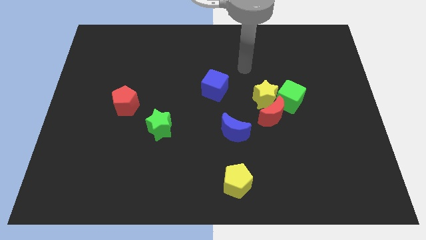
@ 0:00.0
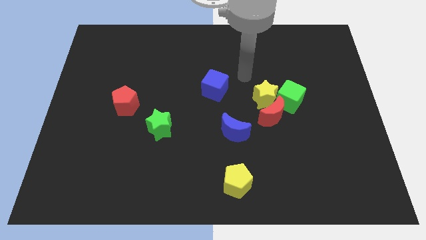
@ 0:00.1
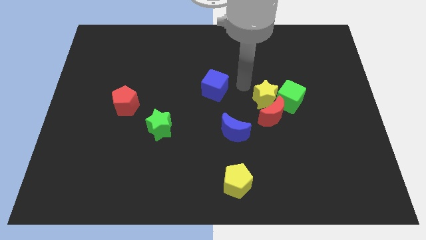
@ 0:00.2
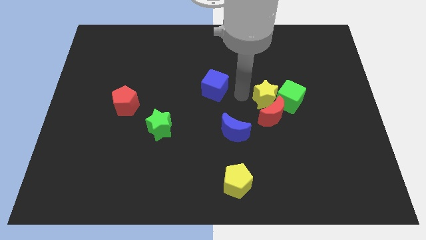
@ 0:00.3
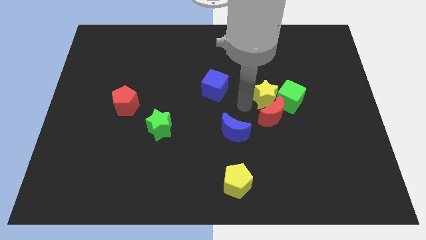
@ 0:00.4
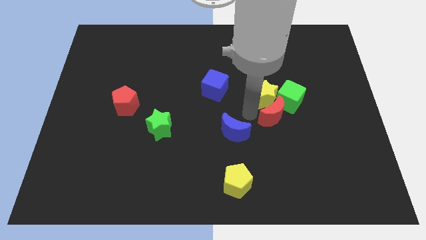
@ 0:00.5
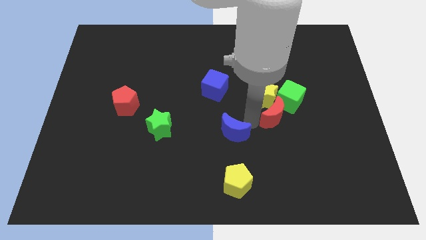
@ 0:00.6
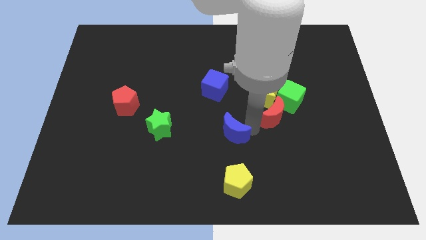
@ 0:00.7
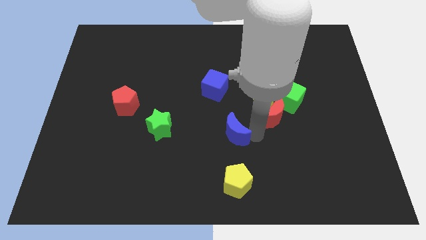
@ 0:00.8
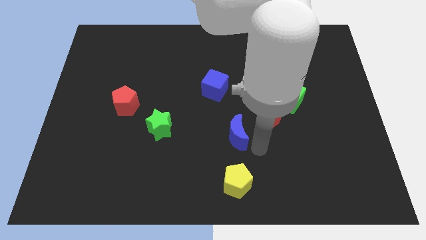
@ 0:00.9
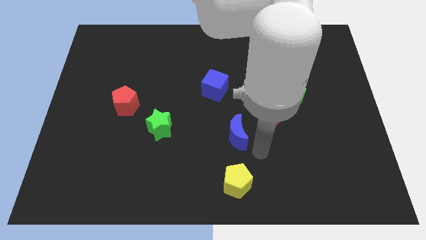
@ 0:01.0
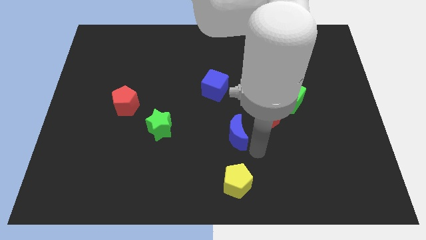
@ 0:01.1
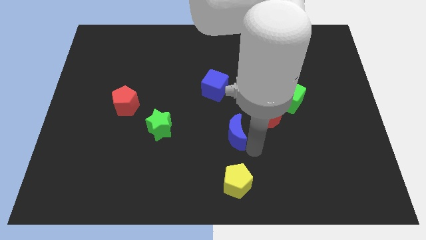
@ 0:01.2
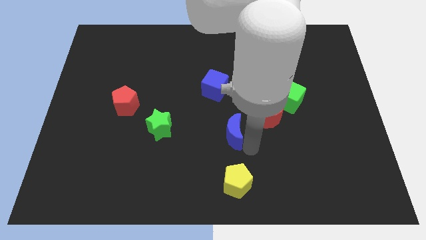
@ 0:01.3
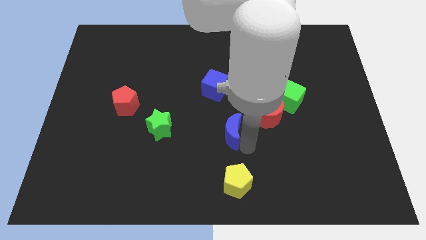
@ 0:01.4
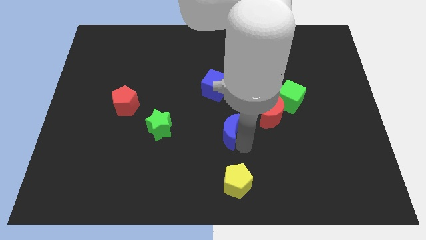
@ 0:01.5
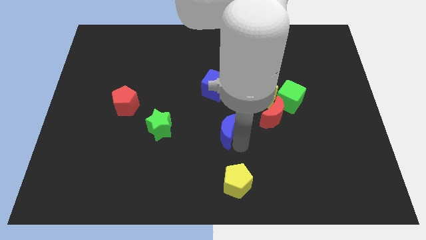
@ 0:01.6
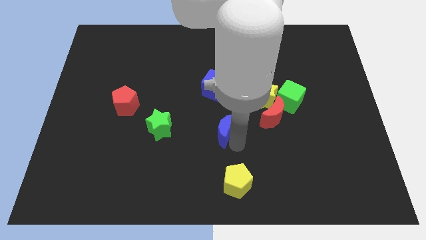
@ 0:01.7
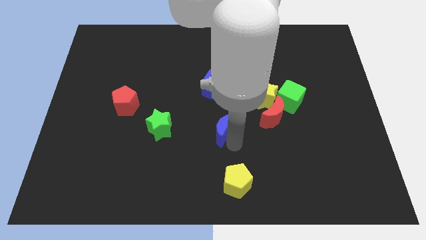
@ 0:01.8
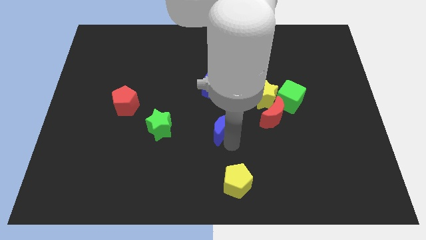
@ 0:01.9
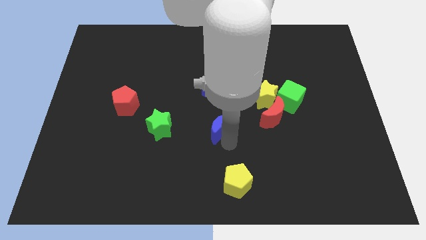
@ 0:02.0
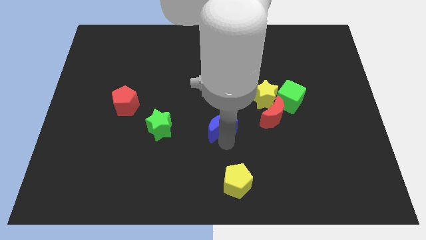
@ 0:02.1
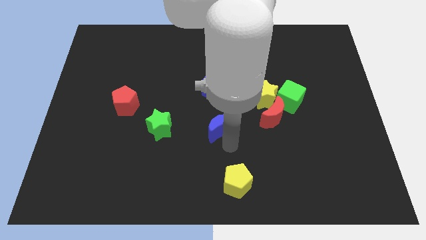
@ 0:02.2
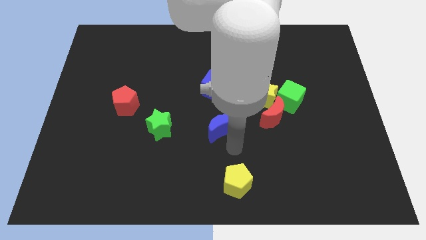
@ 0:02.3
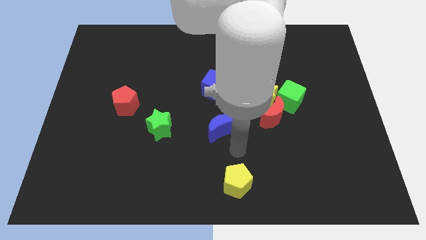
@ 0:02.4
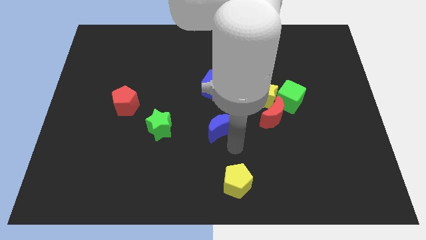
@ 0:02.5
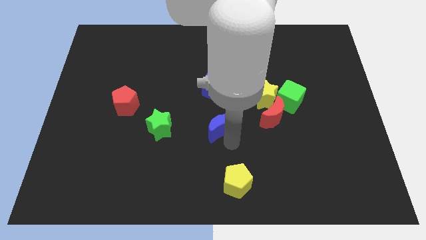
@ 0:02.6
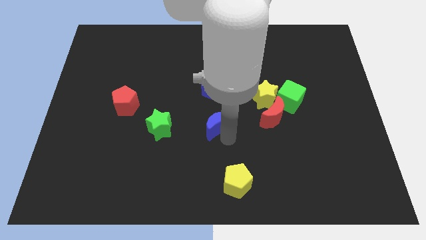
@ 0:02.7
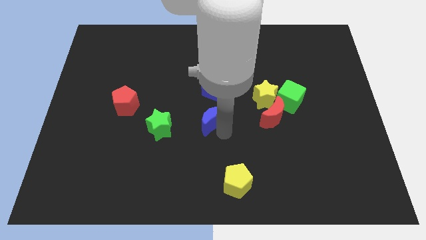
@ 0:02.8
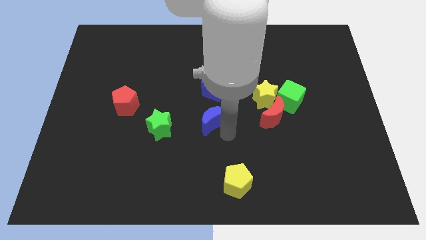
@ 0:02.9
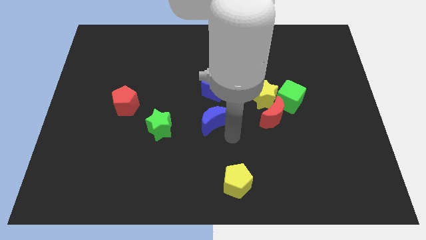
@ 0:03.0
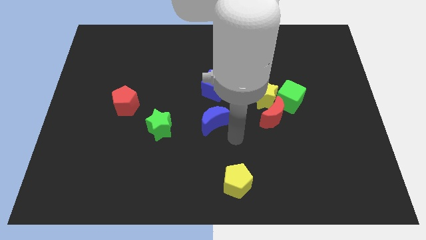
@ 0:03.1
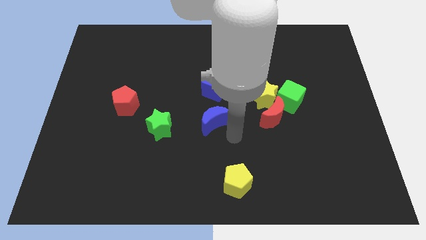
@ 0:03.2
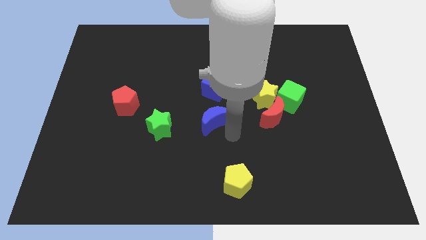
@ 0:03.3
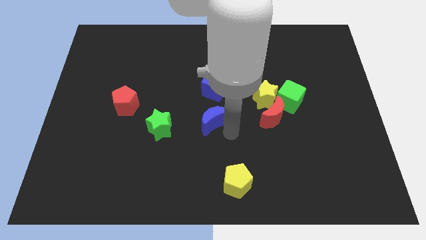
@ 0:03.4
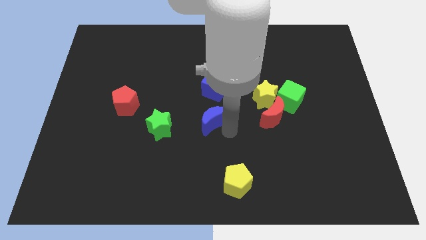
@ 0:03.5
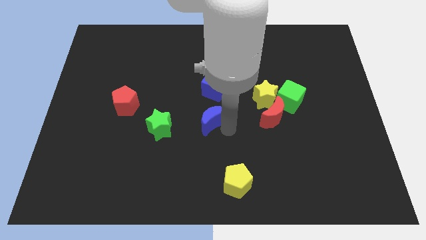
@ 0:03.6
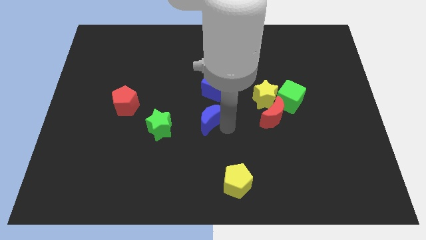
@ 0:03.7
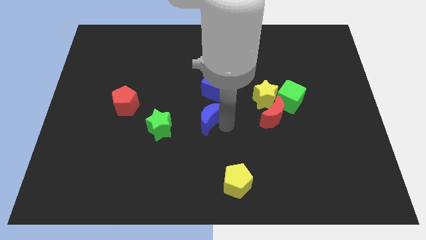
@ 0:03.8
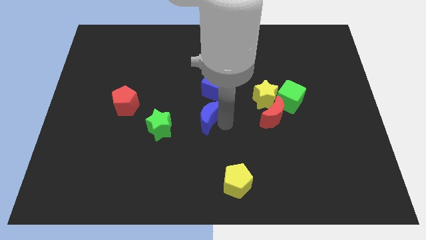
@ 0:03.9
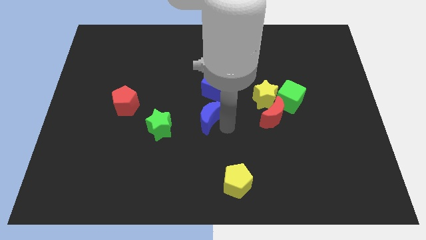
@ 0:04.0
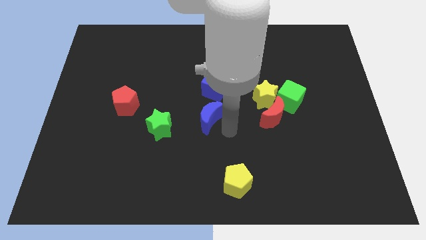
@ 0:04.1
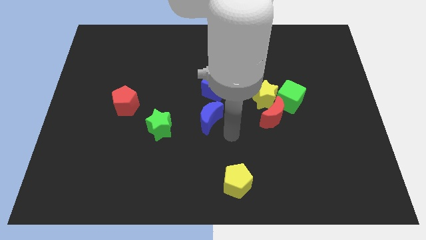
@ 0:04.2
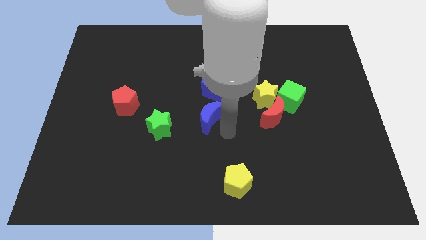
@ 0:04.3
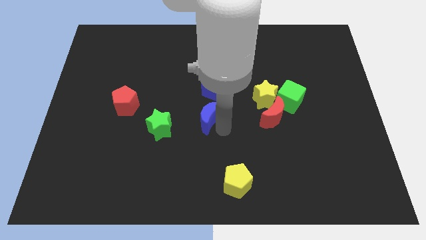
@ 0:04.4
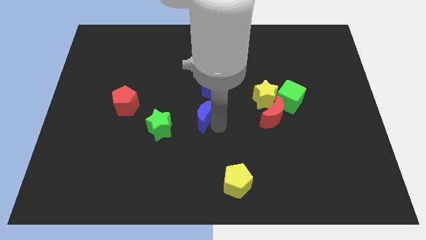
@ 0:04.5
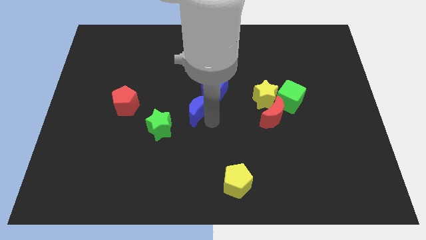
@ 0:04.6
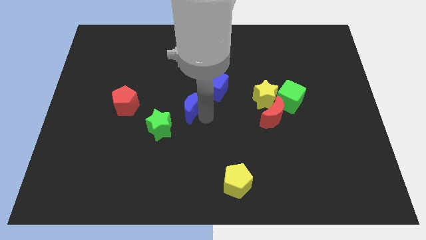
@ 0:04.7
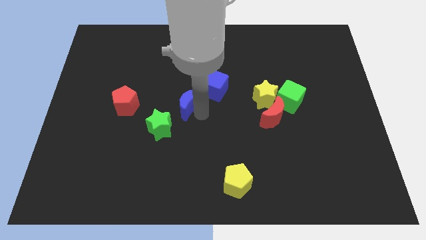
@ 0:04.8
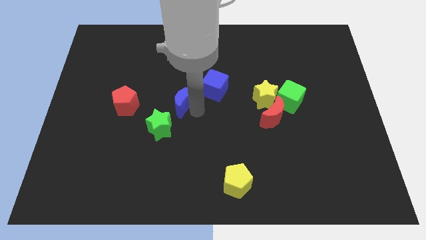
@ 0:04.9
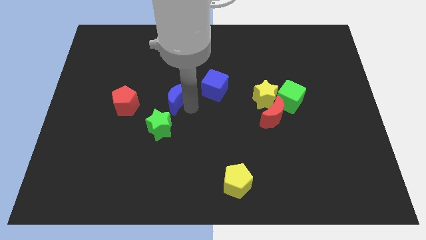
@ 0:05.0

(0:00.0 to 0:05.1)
put the blue moon to the top of the green star

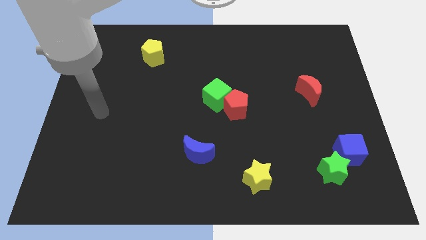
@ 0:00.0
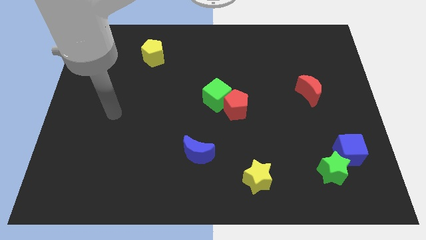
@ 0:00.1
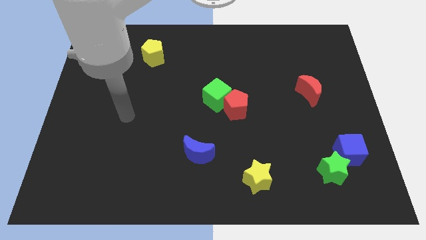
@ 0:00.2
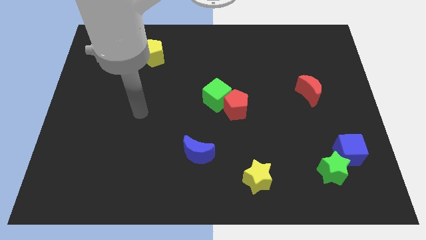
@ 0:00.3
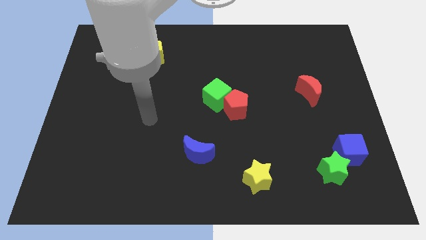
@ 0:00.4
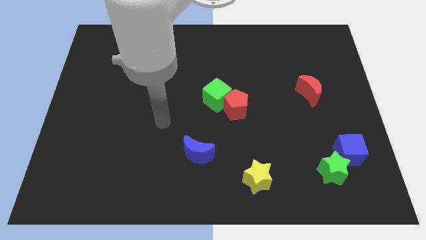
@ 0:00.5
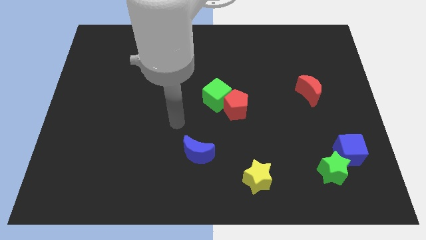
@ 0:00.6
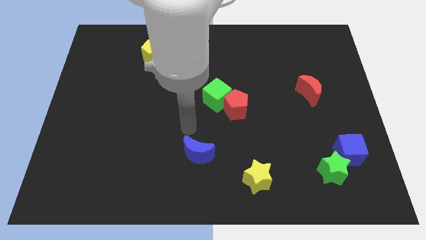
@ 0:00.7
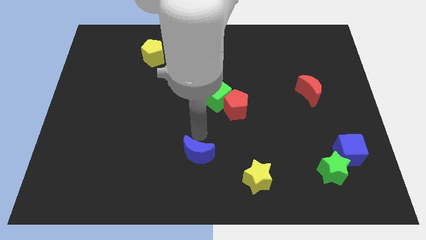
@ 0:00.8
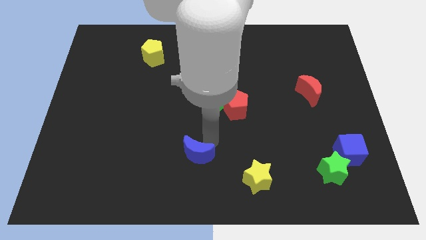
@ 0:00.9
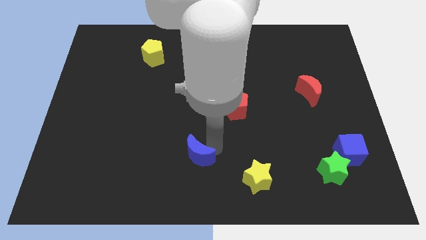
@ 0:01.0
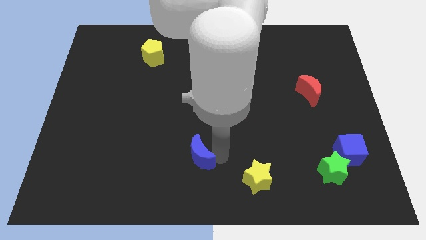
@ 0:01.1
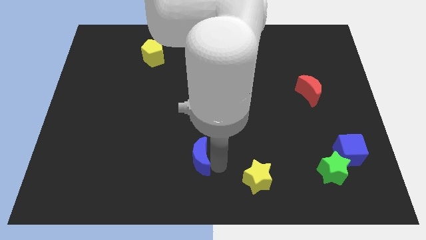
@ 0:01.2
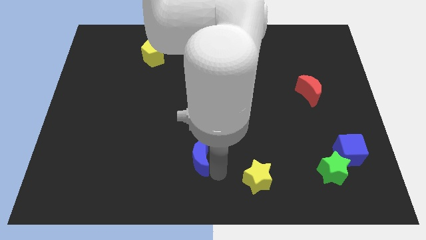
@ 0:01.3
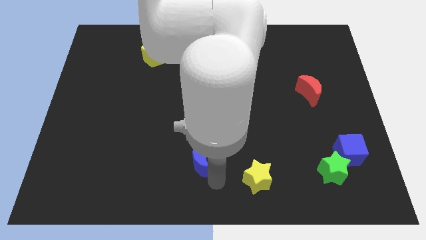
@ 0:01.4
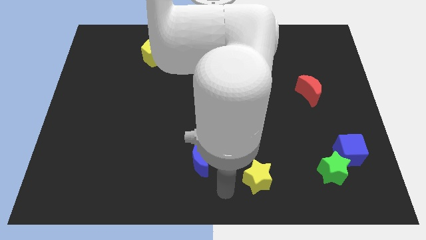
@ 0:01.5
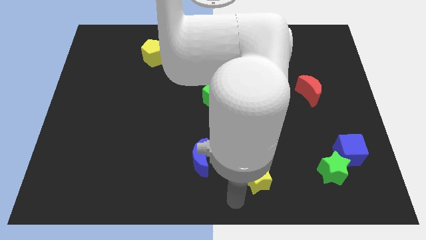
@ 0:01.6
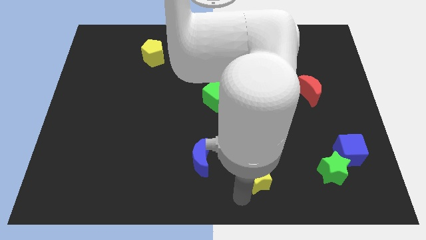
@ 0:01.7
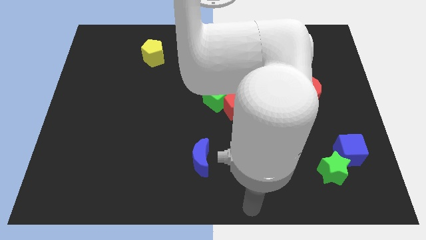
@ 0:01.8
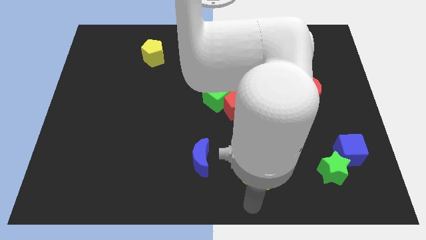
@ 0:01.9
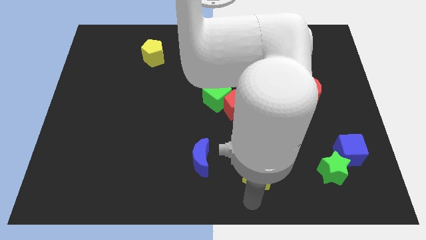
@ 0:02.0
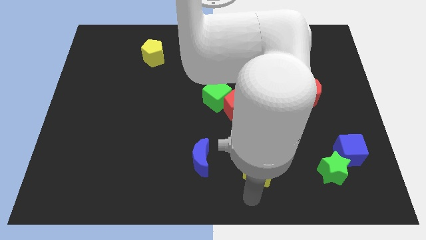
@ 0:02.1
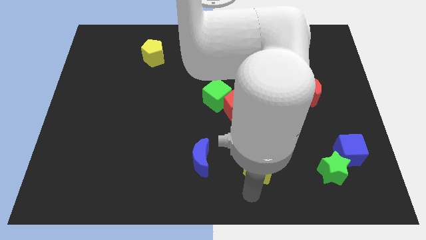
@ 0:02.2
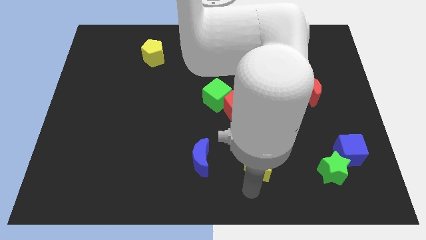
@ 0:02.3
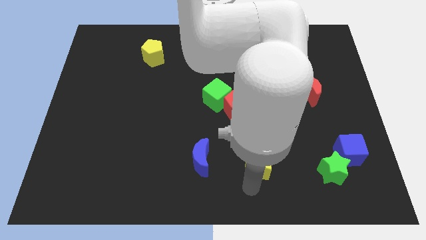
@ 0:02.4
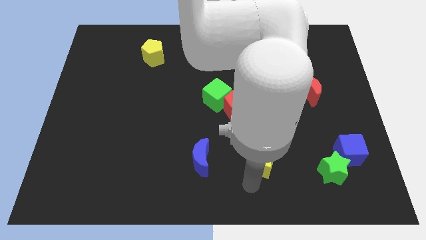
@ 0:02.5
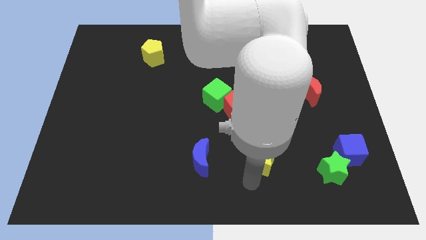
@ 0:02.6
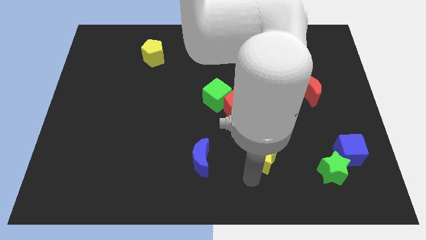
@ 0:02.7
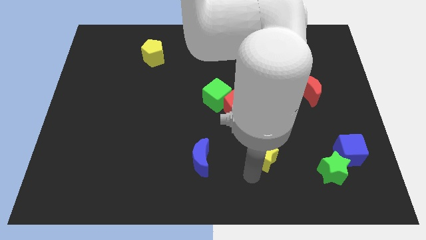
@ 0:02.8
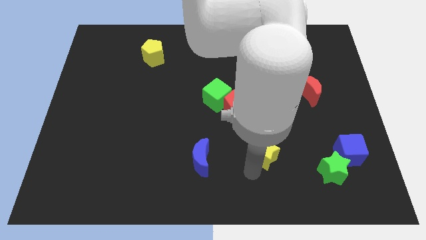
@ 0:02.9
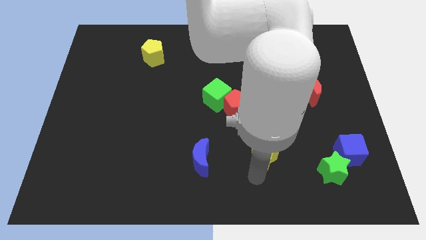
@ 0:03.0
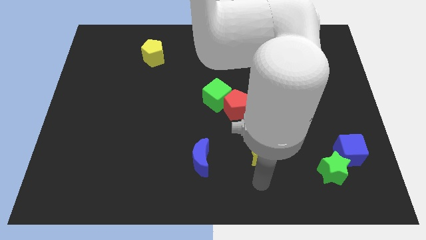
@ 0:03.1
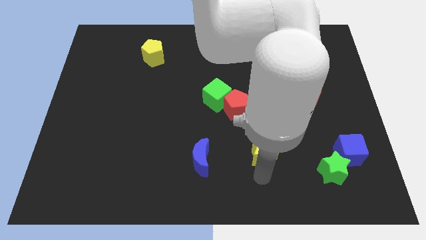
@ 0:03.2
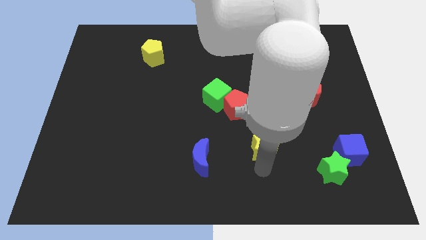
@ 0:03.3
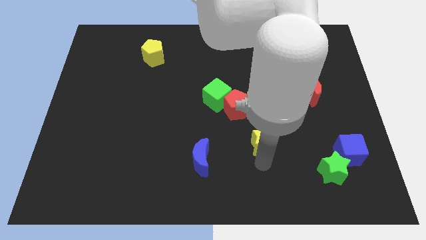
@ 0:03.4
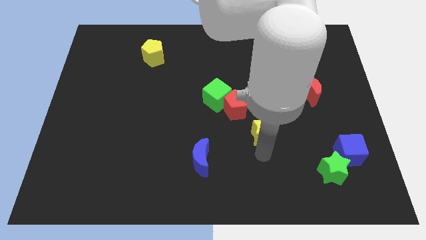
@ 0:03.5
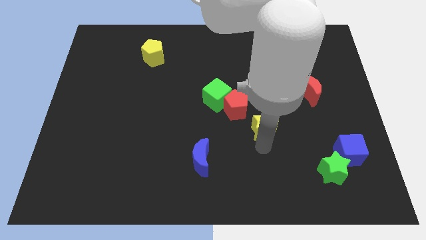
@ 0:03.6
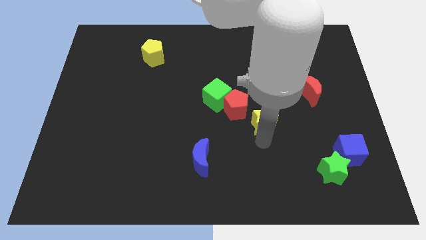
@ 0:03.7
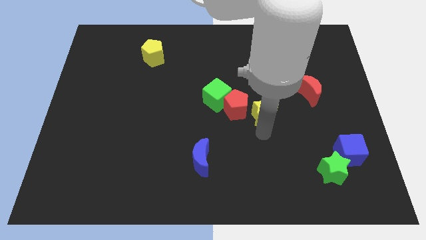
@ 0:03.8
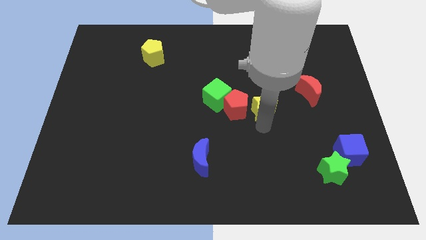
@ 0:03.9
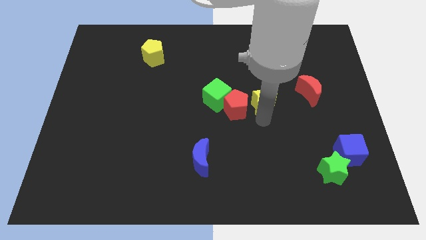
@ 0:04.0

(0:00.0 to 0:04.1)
push the yellow star to the left of the red moon
